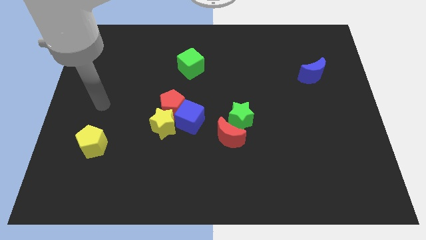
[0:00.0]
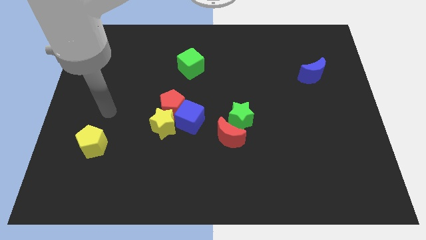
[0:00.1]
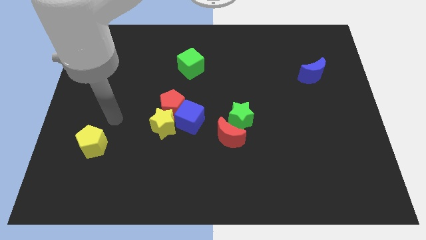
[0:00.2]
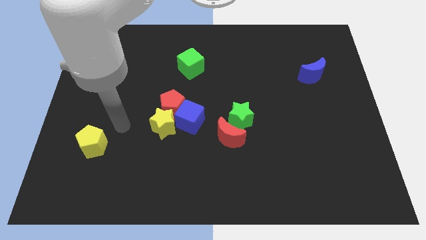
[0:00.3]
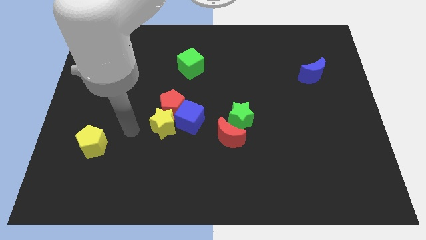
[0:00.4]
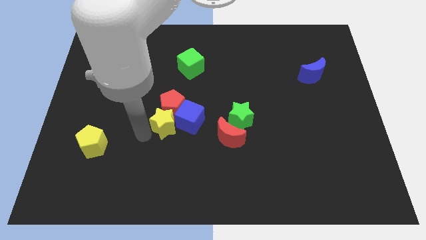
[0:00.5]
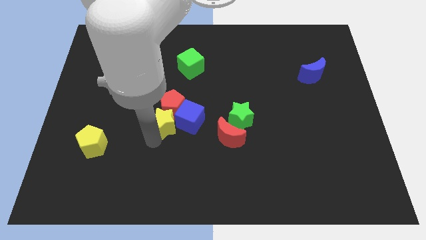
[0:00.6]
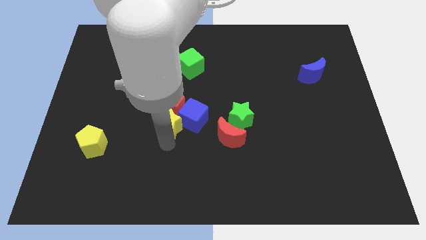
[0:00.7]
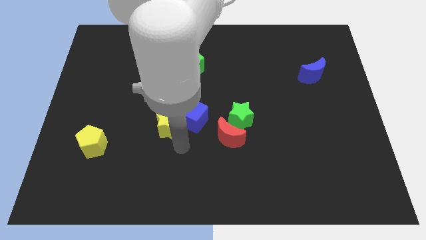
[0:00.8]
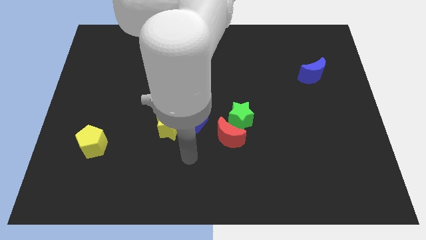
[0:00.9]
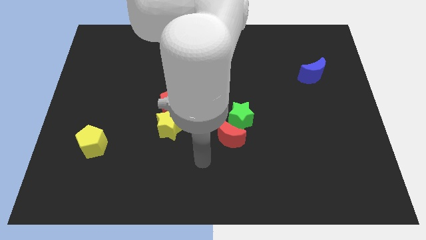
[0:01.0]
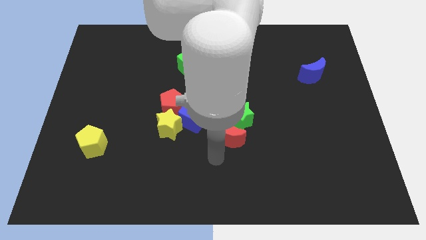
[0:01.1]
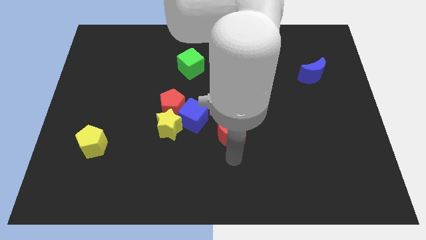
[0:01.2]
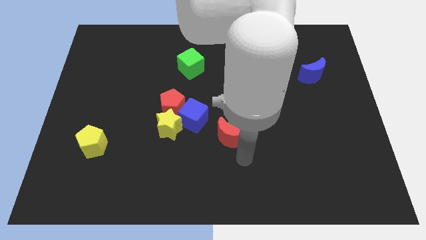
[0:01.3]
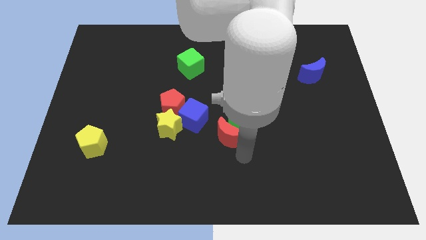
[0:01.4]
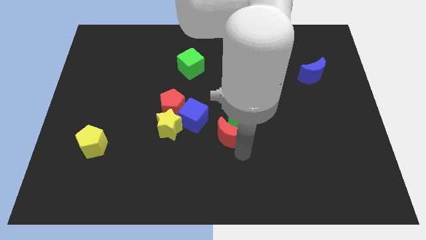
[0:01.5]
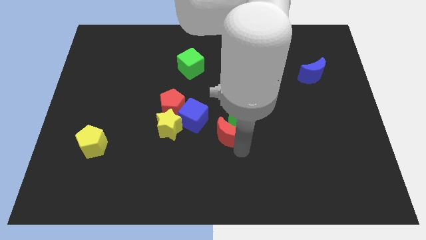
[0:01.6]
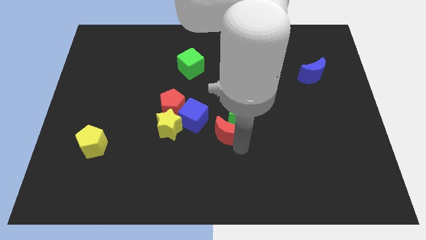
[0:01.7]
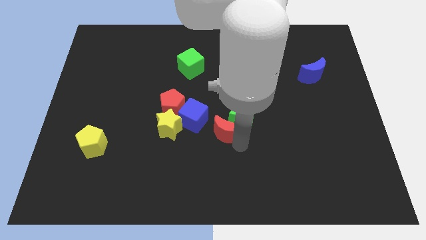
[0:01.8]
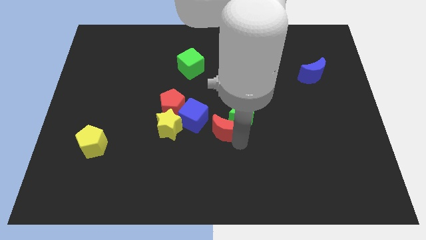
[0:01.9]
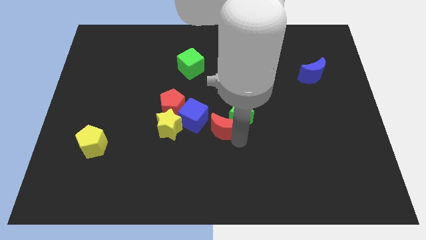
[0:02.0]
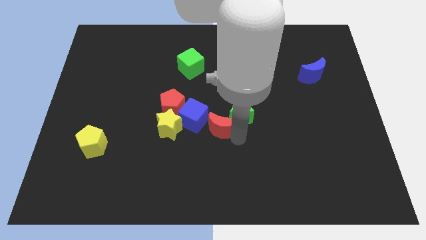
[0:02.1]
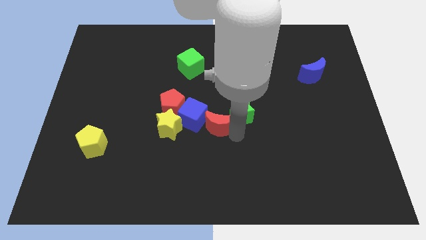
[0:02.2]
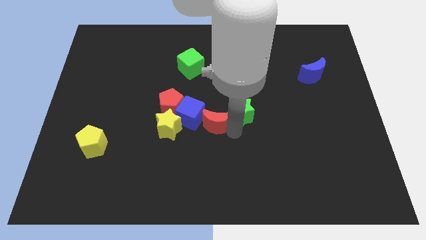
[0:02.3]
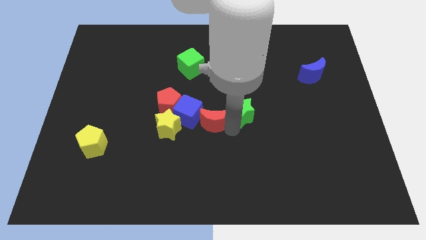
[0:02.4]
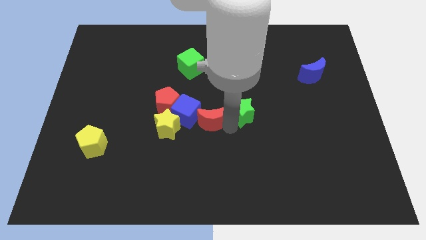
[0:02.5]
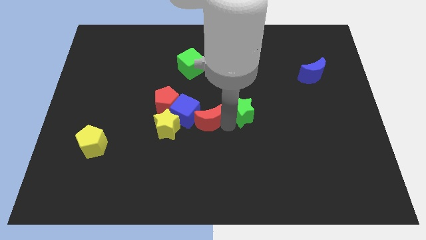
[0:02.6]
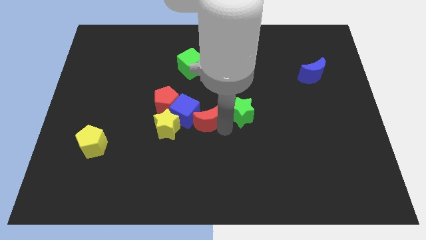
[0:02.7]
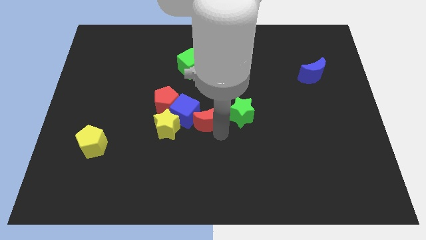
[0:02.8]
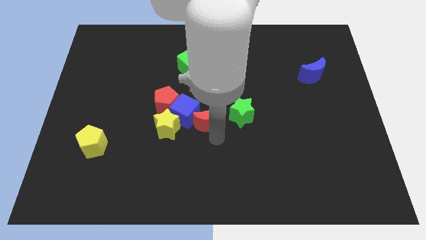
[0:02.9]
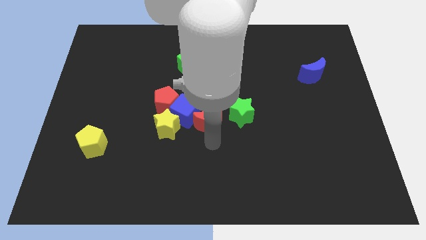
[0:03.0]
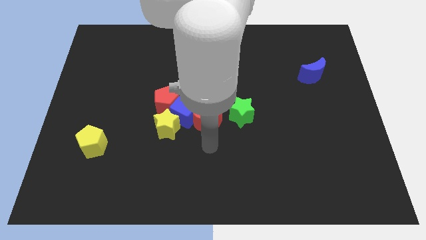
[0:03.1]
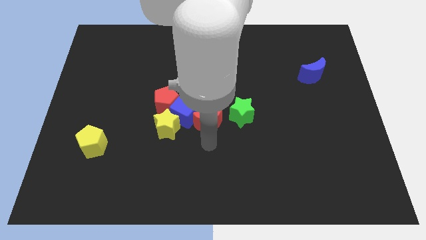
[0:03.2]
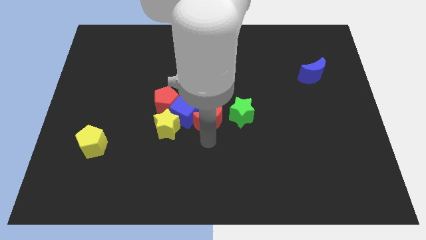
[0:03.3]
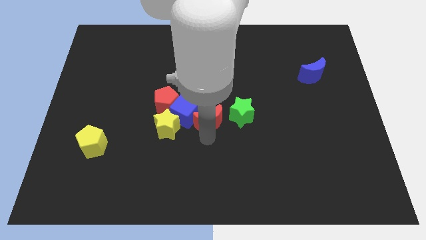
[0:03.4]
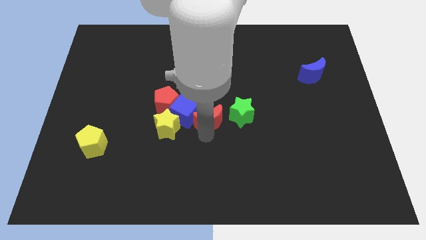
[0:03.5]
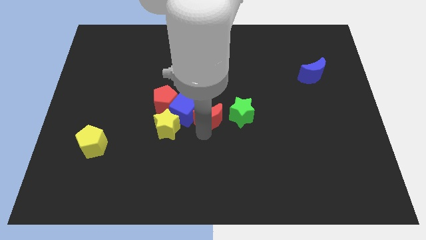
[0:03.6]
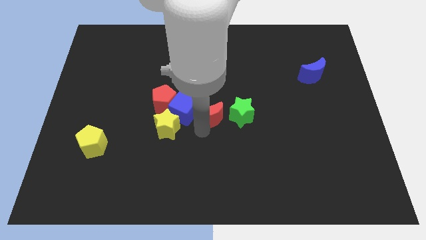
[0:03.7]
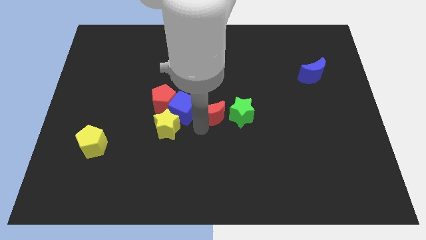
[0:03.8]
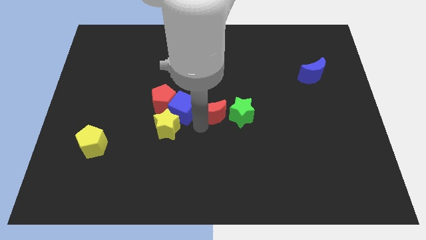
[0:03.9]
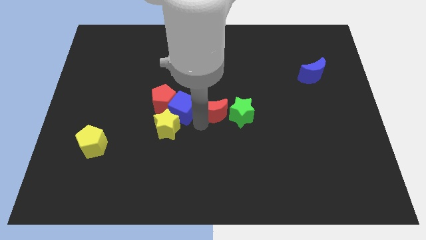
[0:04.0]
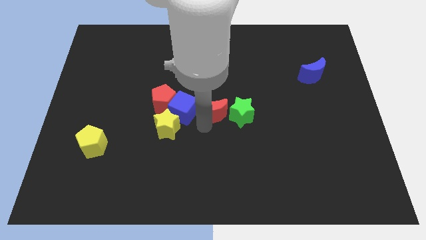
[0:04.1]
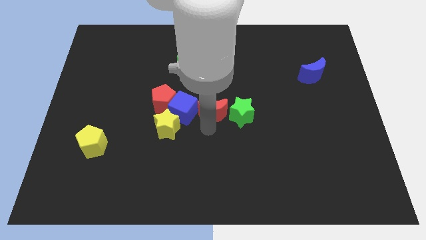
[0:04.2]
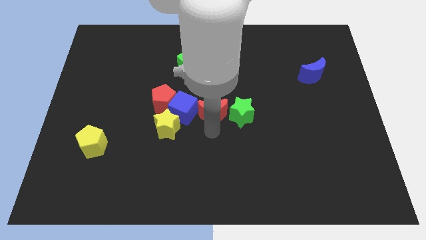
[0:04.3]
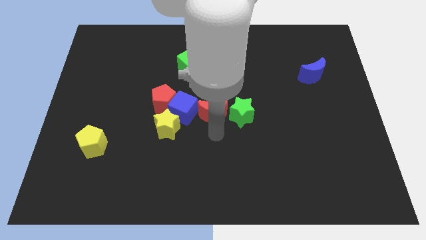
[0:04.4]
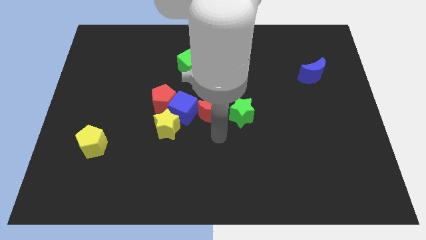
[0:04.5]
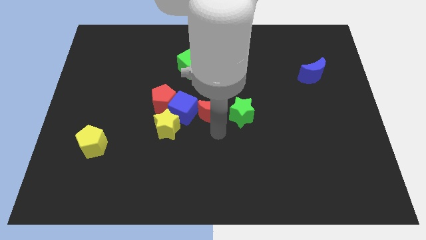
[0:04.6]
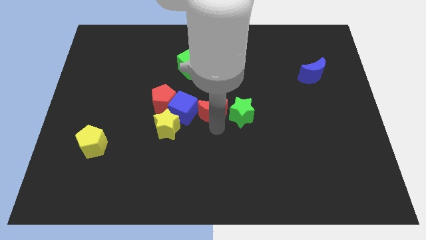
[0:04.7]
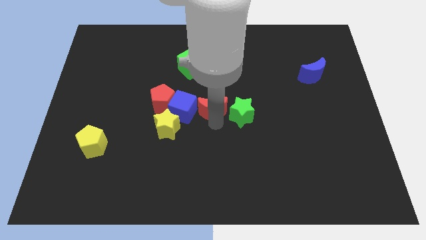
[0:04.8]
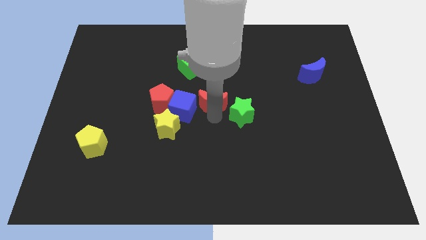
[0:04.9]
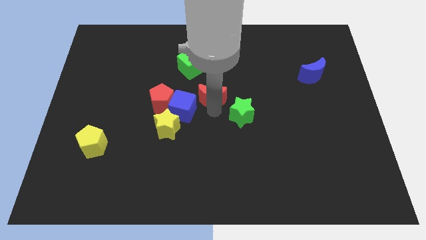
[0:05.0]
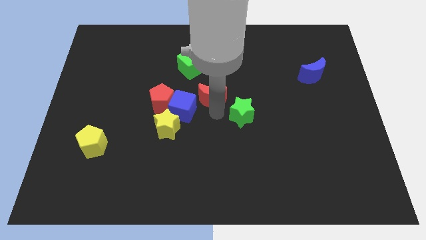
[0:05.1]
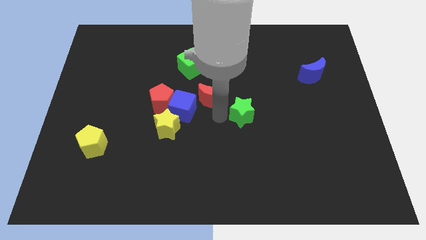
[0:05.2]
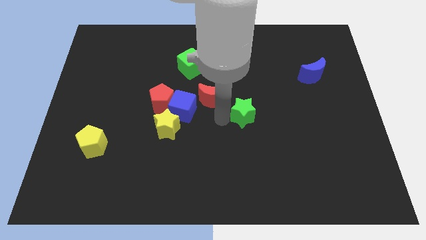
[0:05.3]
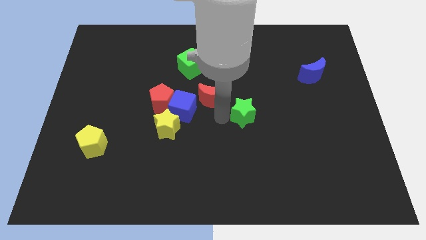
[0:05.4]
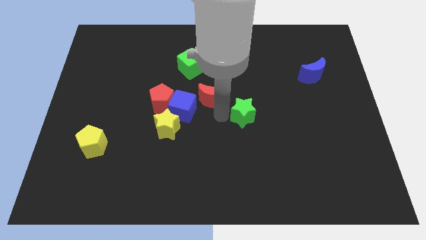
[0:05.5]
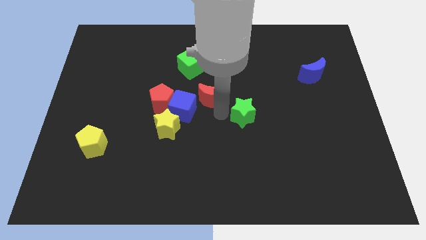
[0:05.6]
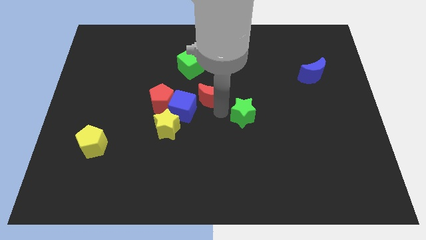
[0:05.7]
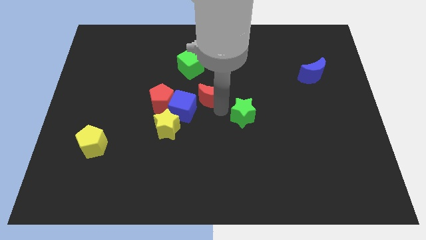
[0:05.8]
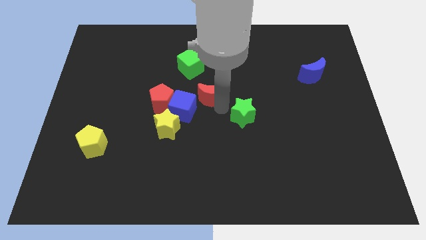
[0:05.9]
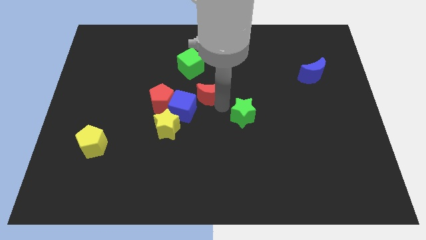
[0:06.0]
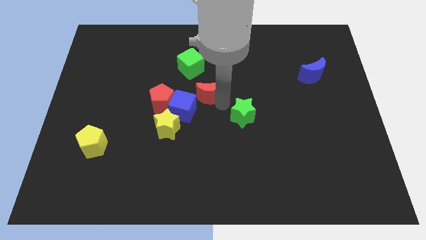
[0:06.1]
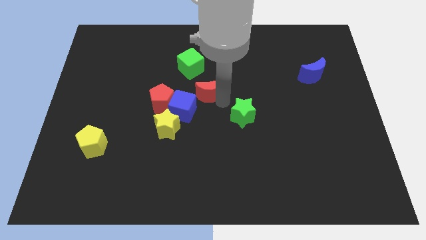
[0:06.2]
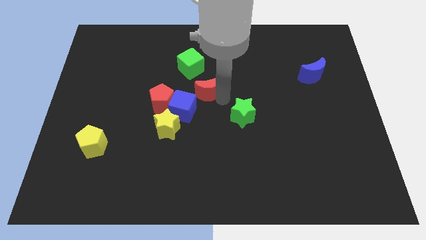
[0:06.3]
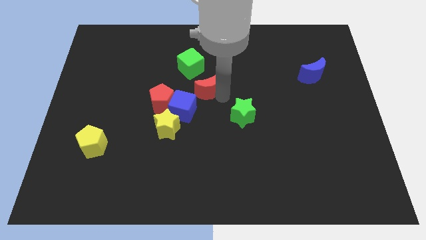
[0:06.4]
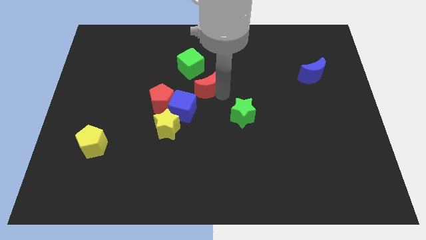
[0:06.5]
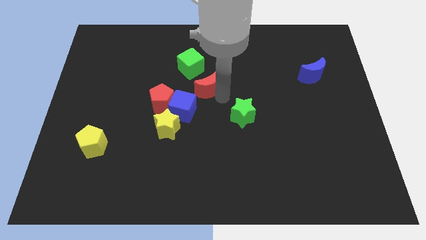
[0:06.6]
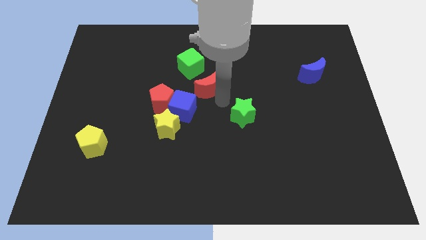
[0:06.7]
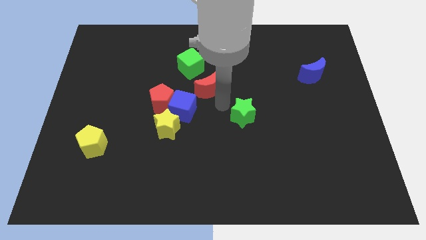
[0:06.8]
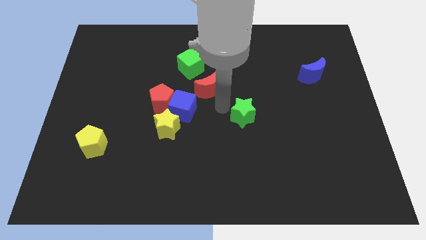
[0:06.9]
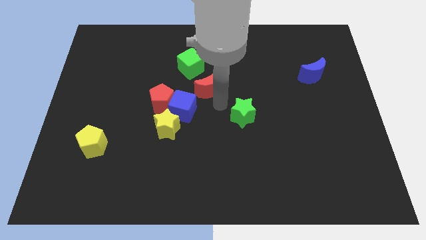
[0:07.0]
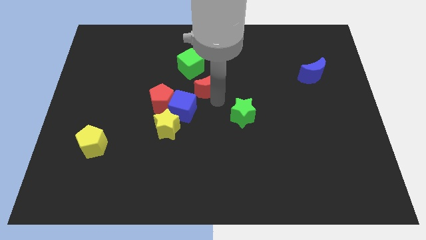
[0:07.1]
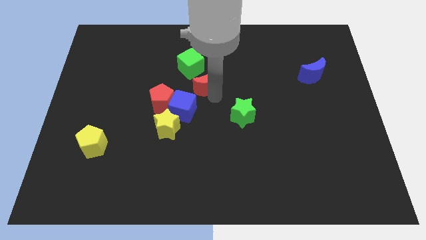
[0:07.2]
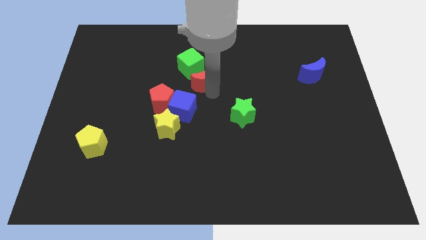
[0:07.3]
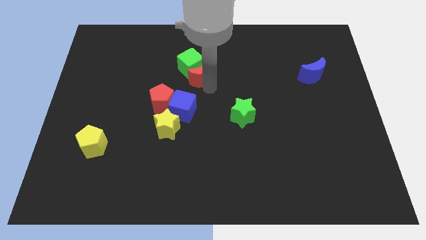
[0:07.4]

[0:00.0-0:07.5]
move the red moon to the green cube
